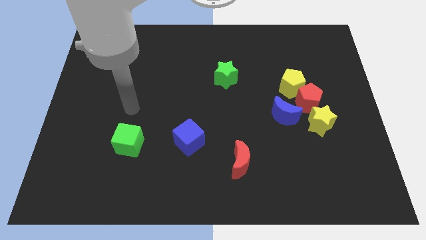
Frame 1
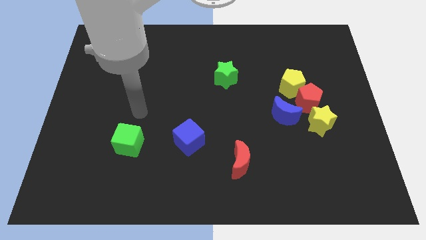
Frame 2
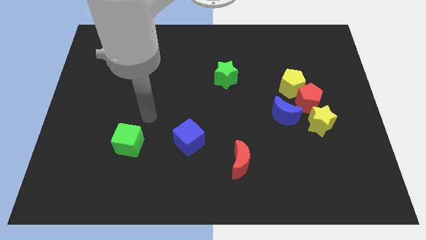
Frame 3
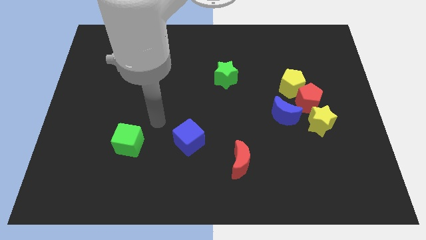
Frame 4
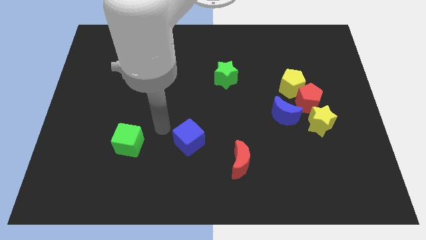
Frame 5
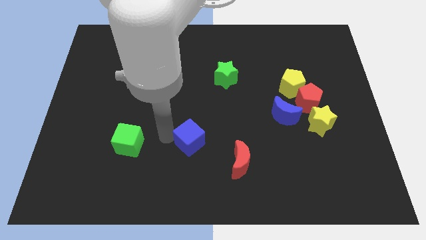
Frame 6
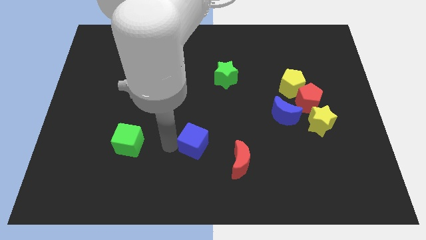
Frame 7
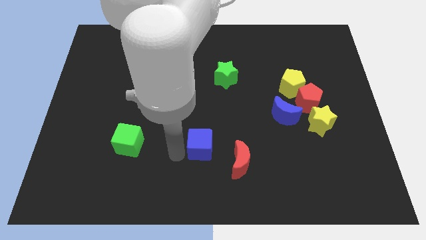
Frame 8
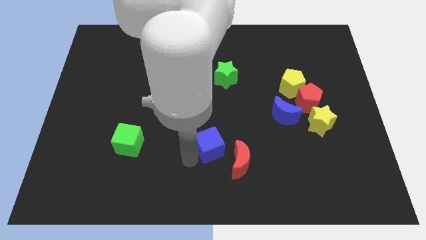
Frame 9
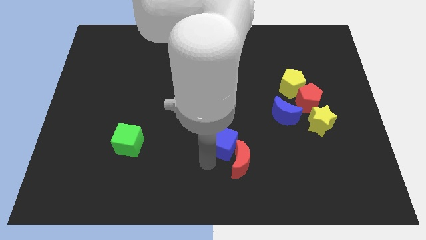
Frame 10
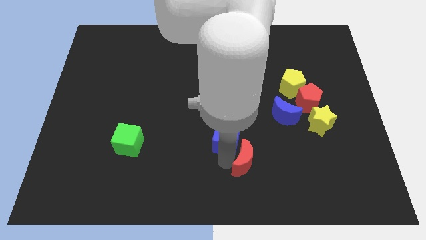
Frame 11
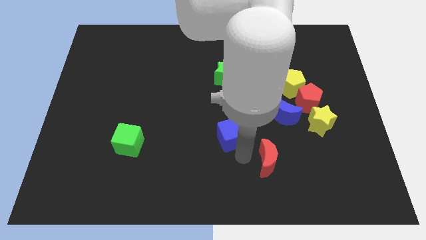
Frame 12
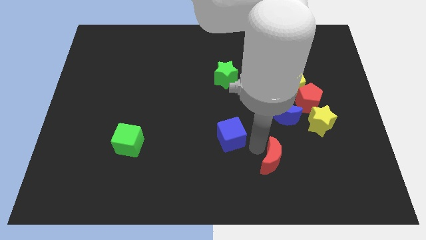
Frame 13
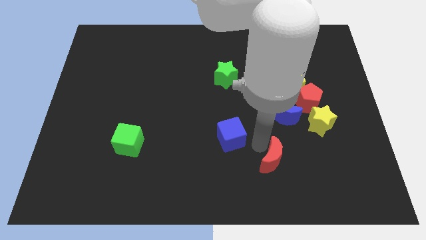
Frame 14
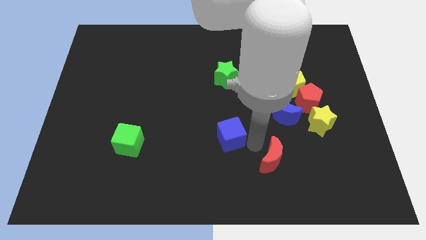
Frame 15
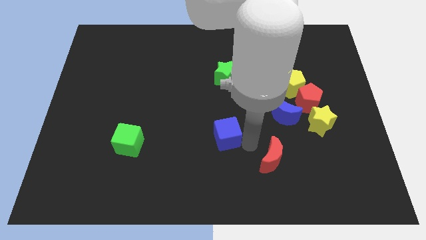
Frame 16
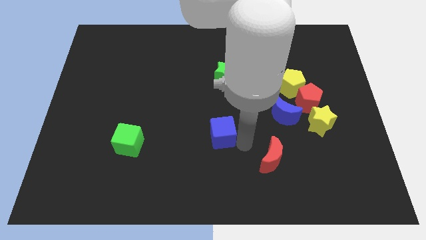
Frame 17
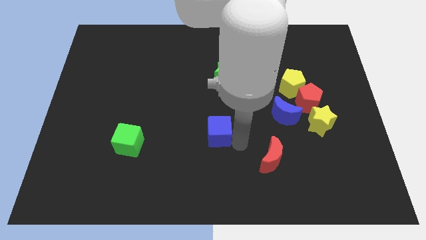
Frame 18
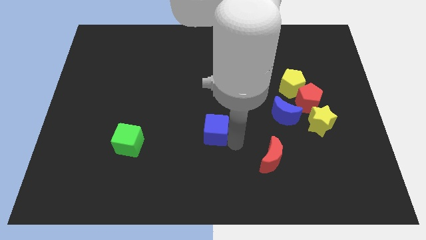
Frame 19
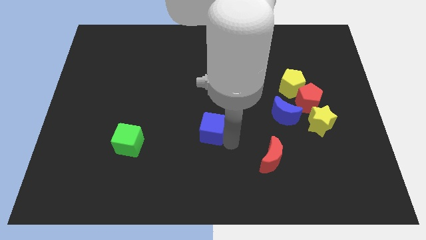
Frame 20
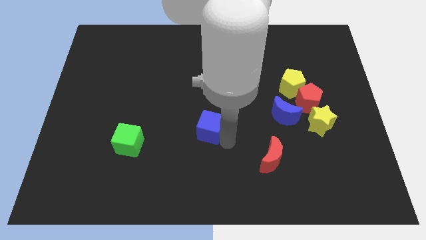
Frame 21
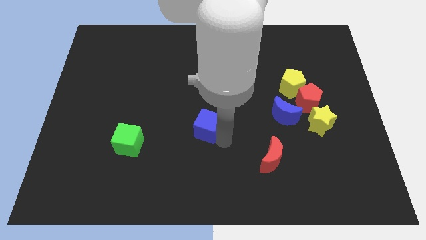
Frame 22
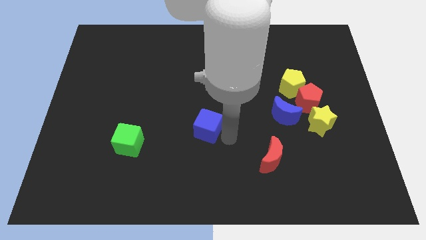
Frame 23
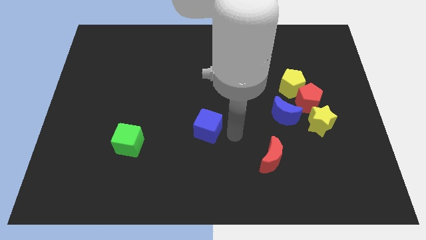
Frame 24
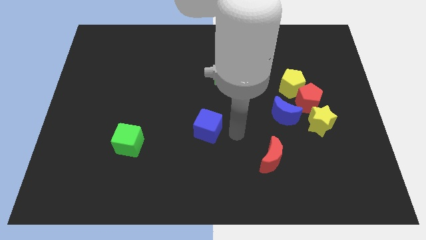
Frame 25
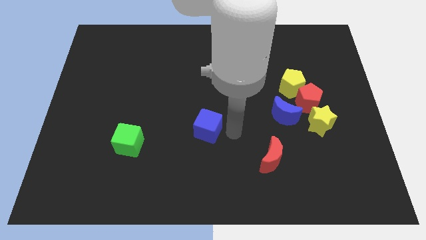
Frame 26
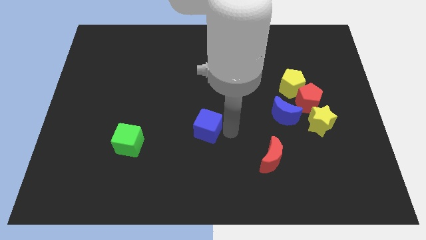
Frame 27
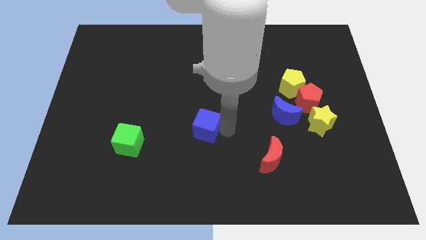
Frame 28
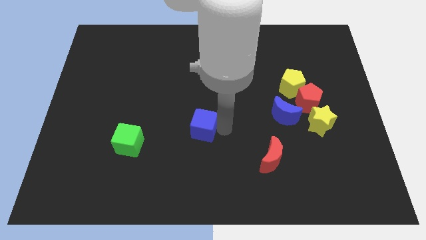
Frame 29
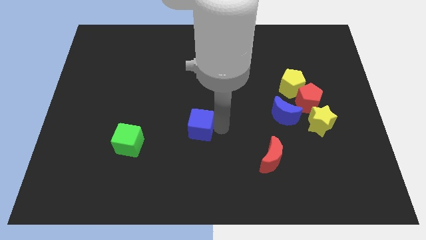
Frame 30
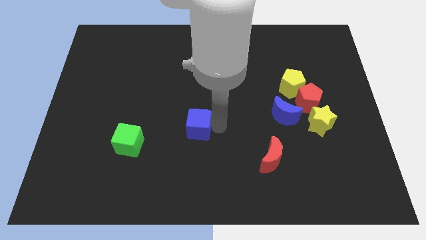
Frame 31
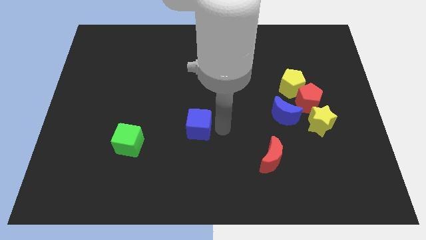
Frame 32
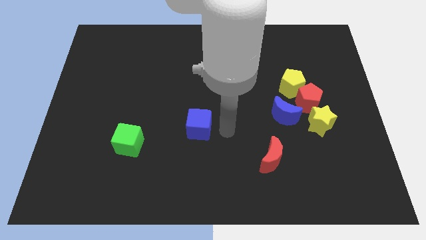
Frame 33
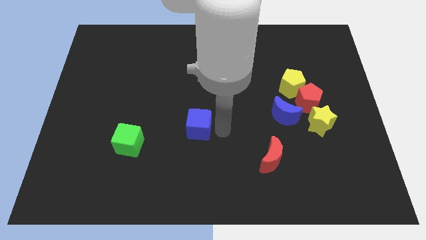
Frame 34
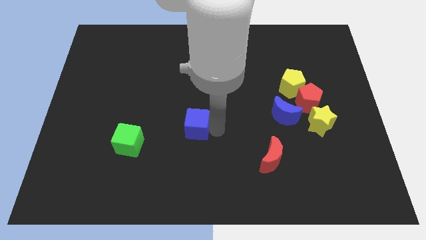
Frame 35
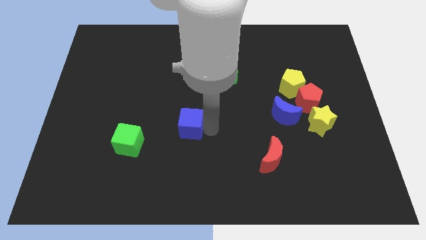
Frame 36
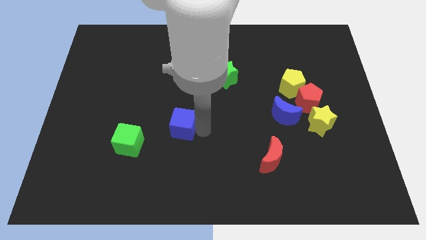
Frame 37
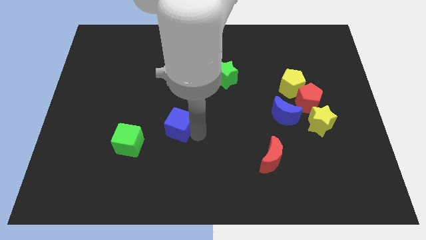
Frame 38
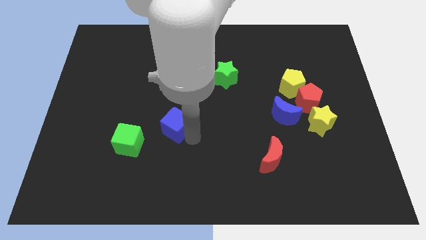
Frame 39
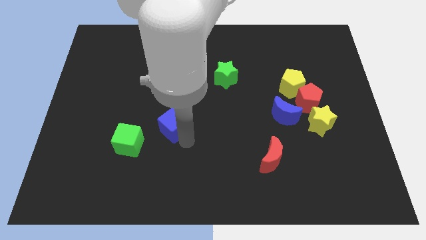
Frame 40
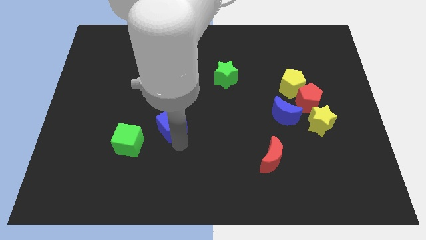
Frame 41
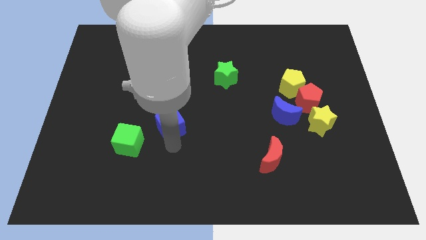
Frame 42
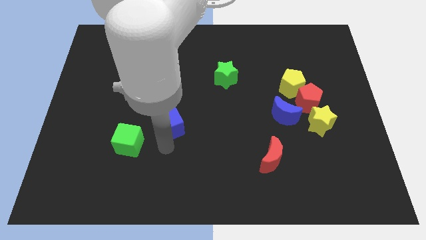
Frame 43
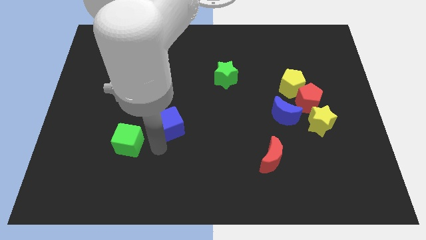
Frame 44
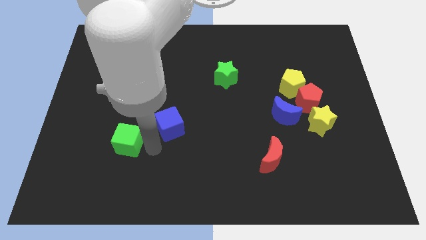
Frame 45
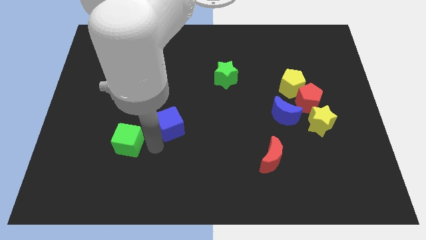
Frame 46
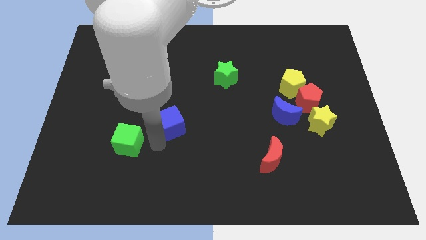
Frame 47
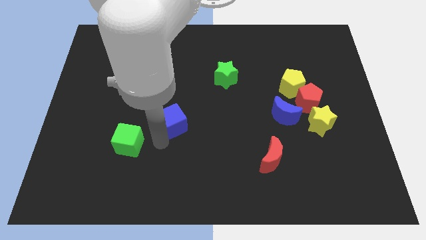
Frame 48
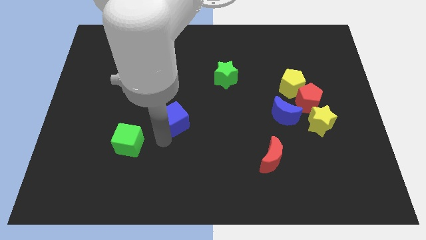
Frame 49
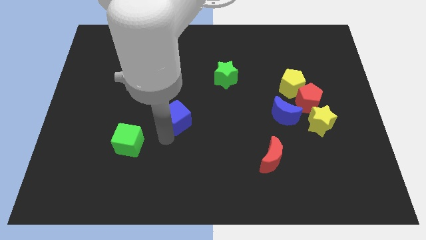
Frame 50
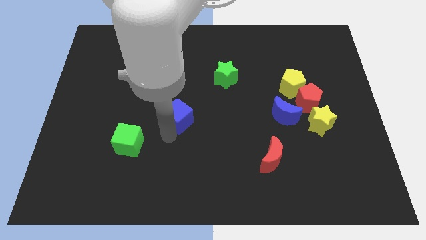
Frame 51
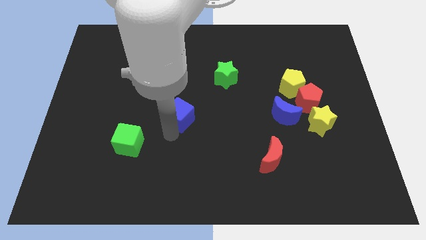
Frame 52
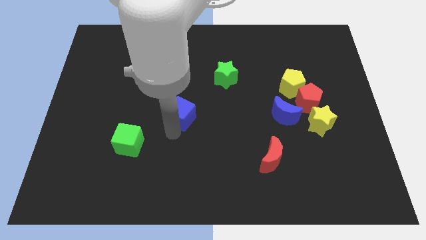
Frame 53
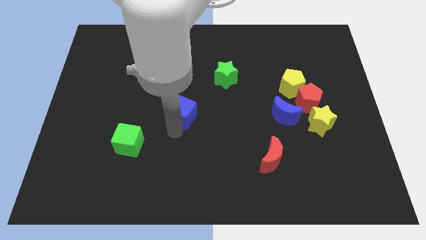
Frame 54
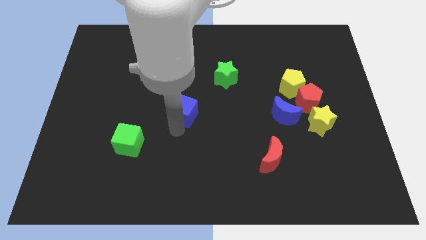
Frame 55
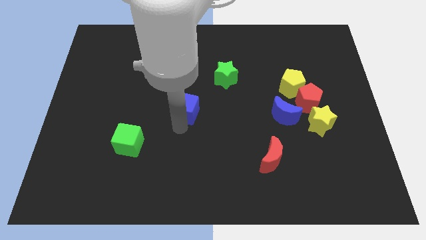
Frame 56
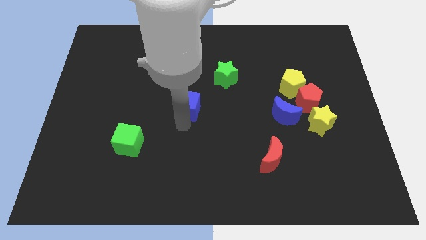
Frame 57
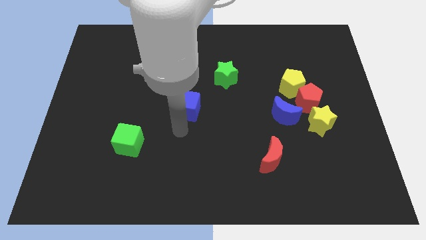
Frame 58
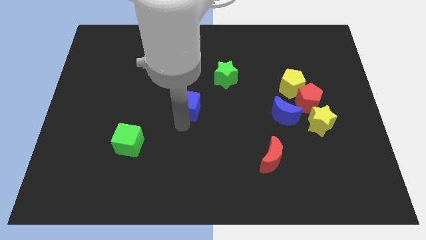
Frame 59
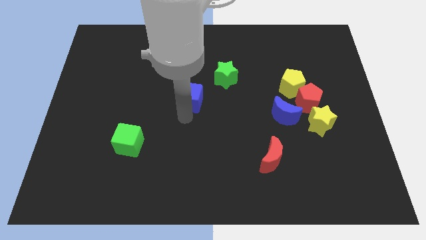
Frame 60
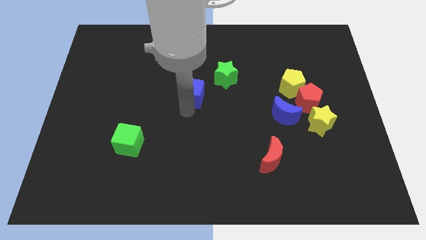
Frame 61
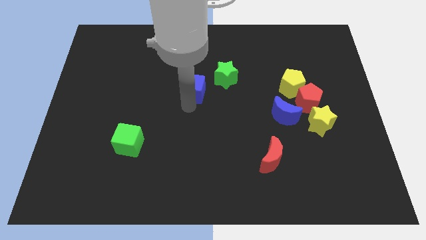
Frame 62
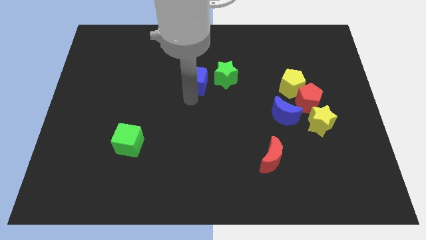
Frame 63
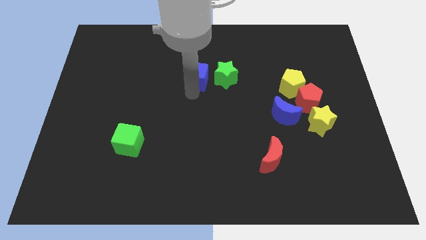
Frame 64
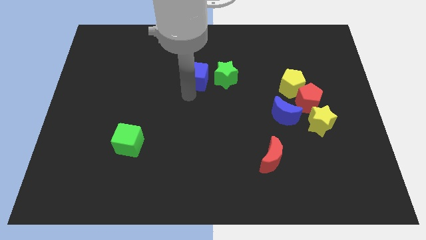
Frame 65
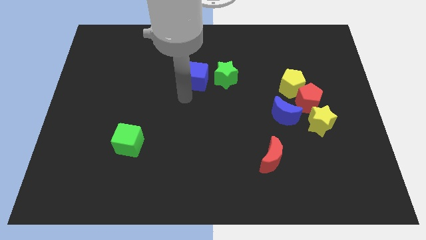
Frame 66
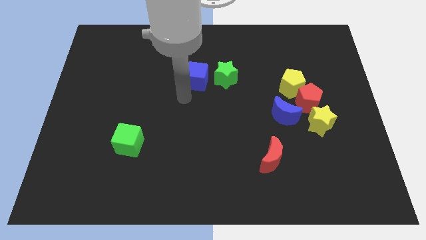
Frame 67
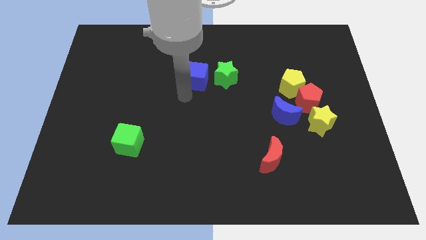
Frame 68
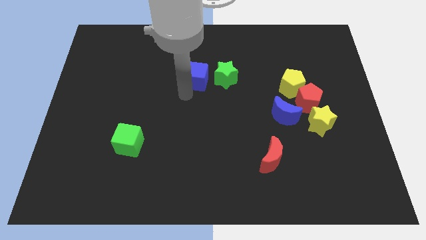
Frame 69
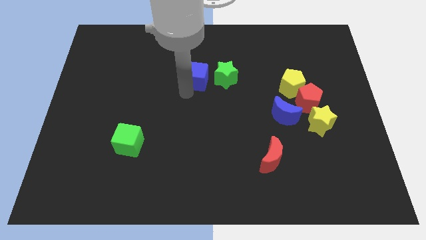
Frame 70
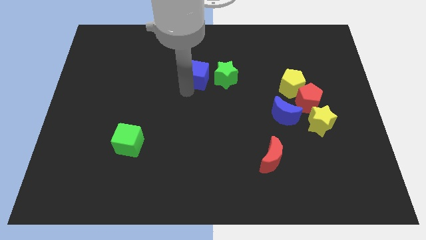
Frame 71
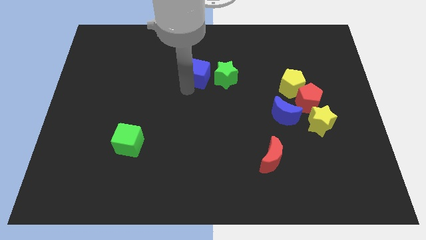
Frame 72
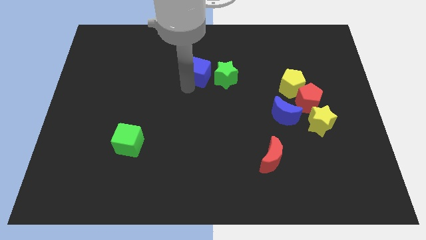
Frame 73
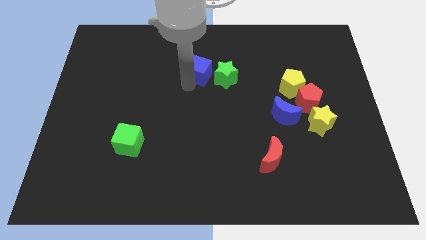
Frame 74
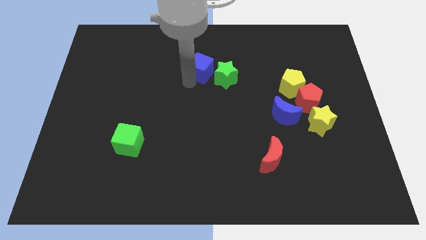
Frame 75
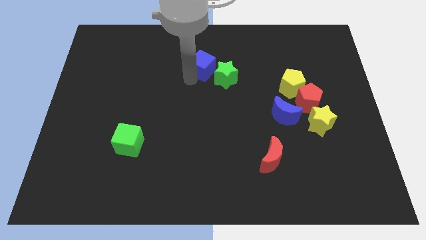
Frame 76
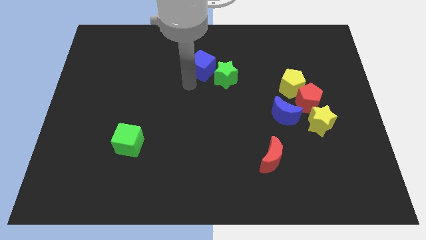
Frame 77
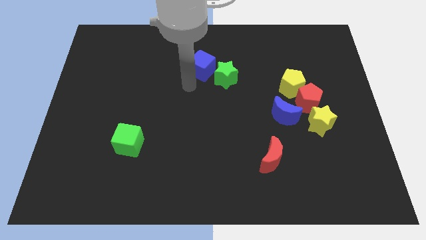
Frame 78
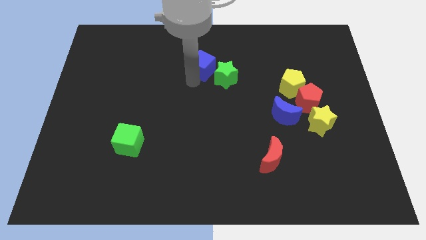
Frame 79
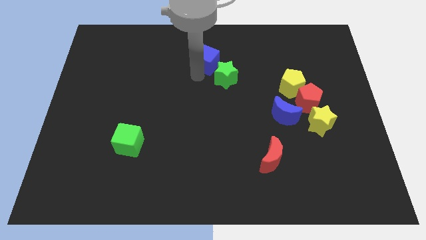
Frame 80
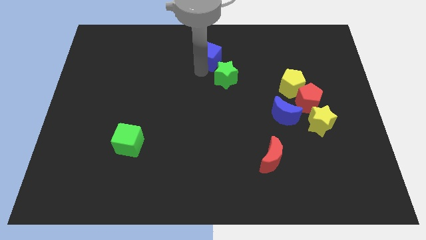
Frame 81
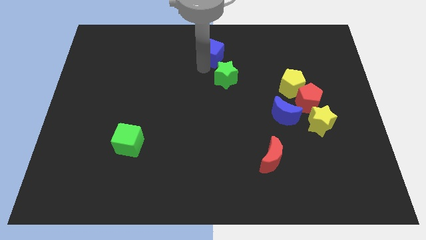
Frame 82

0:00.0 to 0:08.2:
put the blue cube to the towards your base
